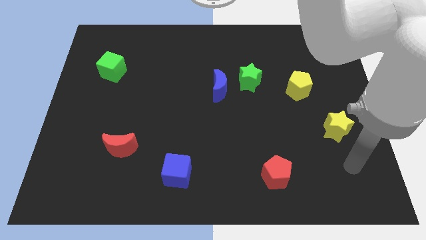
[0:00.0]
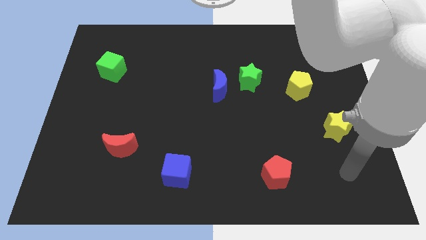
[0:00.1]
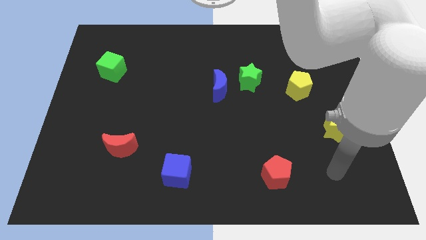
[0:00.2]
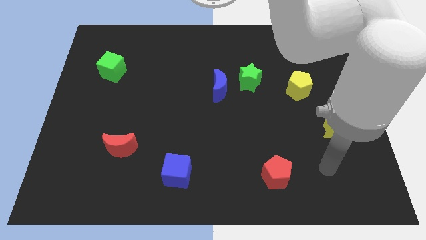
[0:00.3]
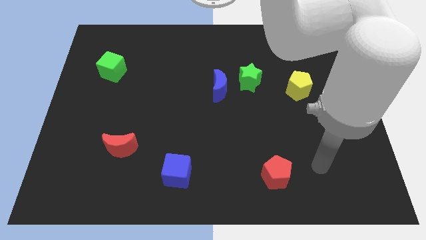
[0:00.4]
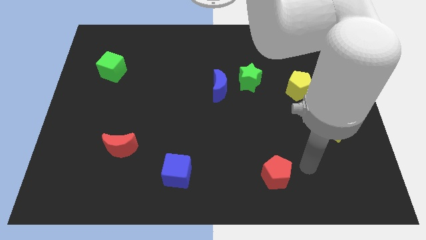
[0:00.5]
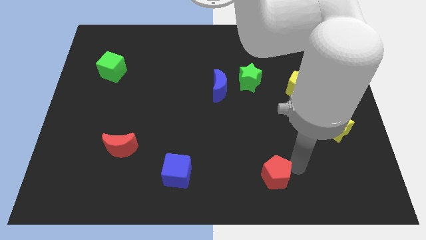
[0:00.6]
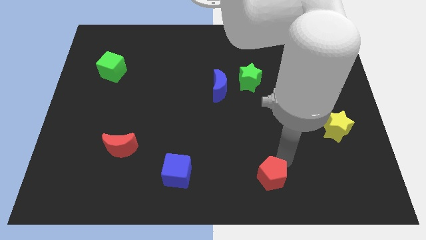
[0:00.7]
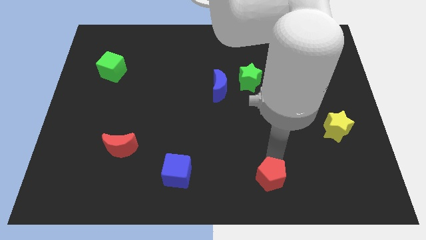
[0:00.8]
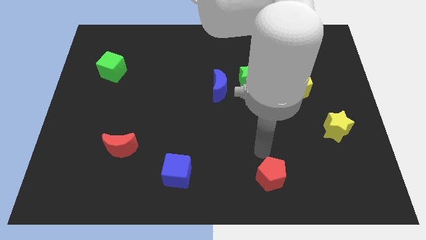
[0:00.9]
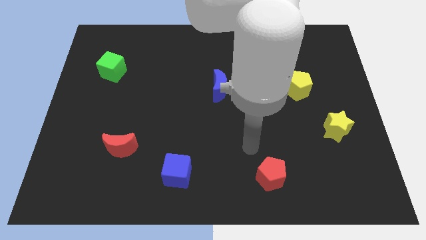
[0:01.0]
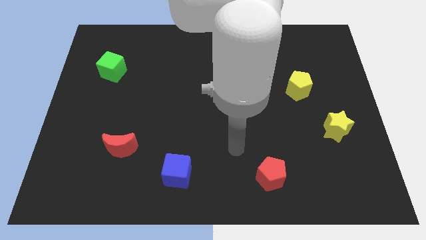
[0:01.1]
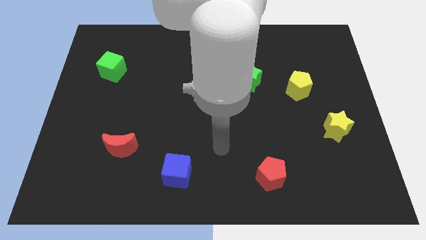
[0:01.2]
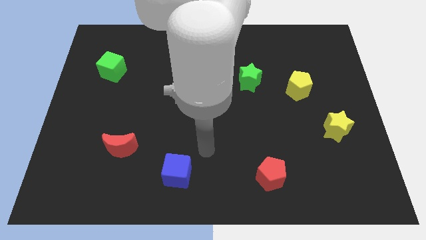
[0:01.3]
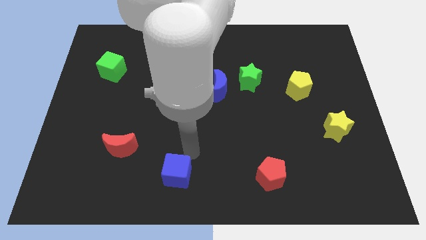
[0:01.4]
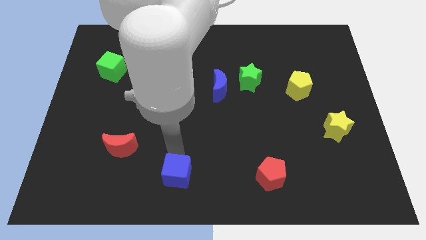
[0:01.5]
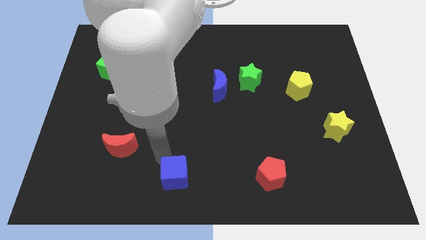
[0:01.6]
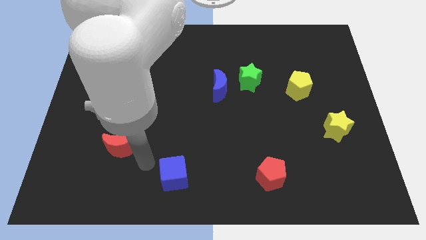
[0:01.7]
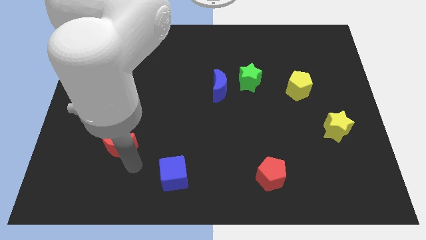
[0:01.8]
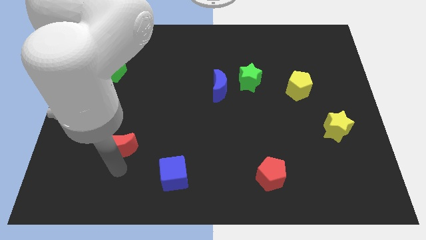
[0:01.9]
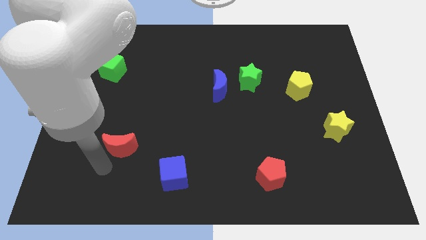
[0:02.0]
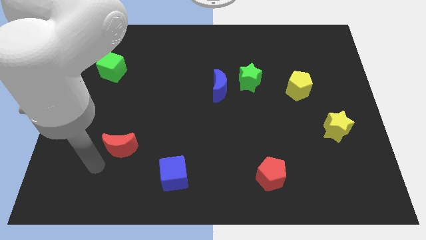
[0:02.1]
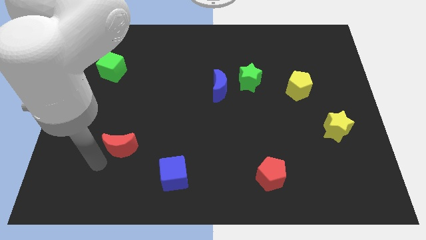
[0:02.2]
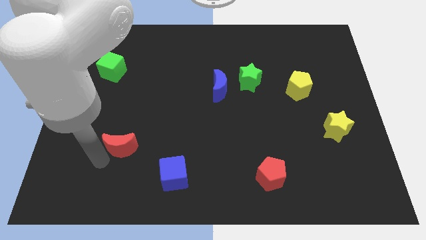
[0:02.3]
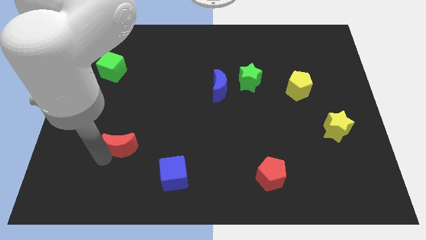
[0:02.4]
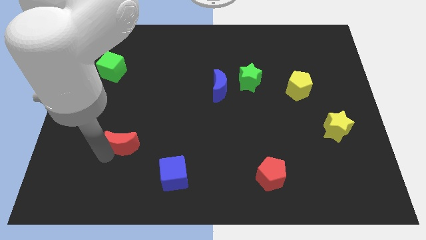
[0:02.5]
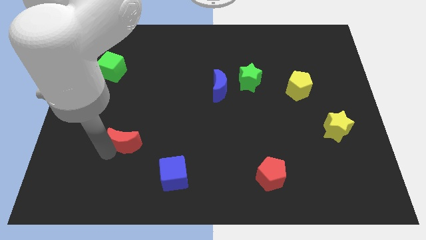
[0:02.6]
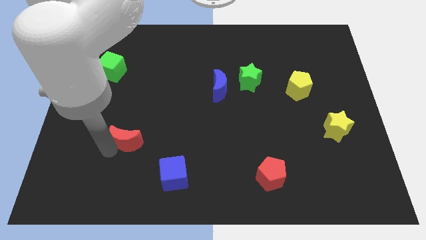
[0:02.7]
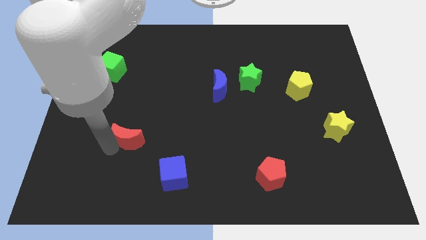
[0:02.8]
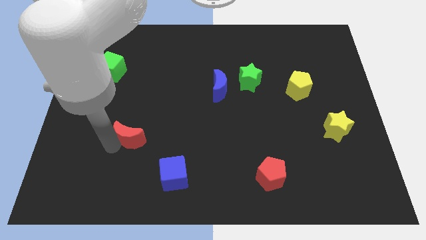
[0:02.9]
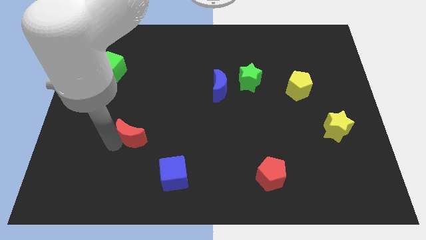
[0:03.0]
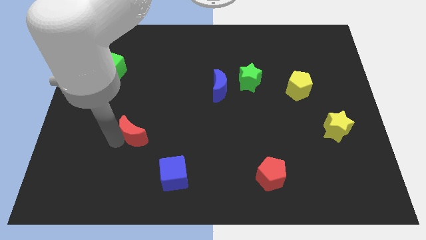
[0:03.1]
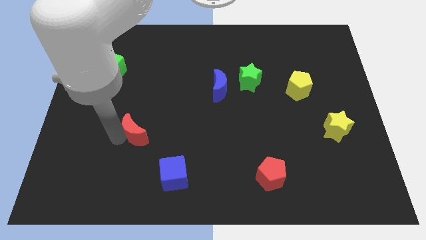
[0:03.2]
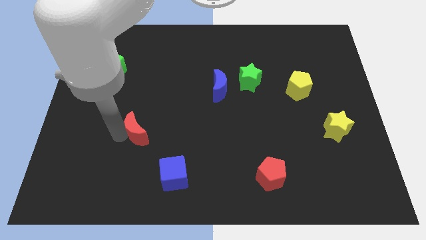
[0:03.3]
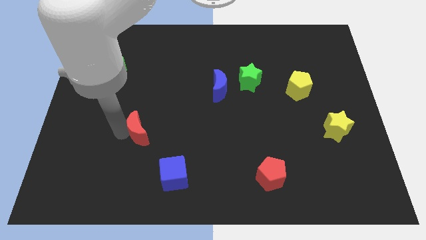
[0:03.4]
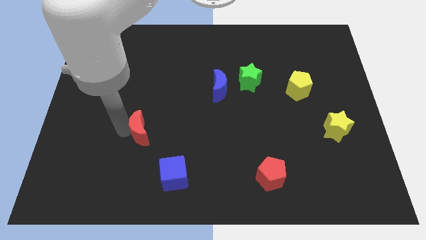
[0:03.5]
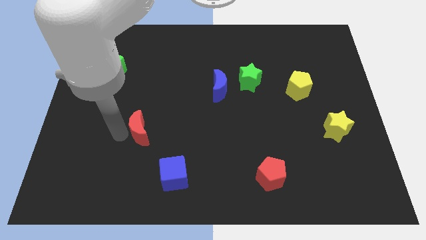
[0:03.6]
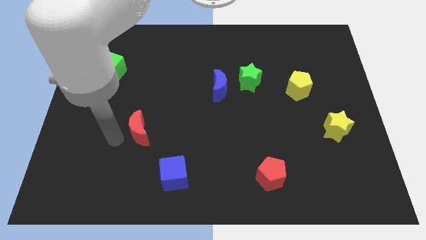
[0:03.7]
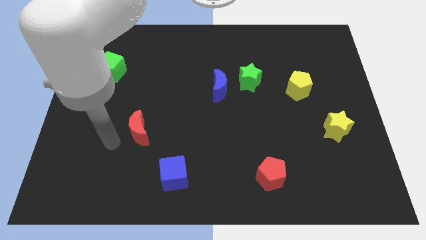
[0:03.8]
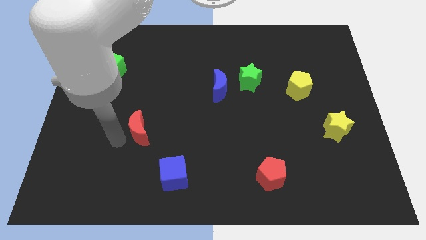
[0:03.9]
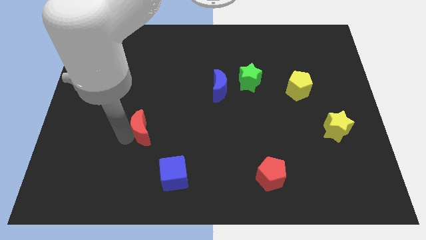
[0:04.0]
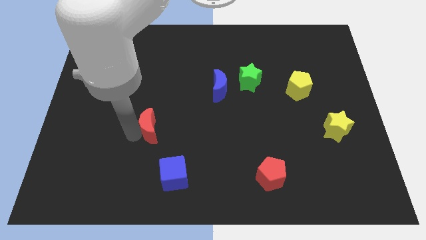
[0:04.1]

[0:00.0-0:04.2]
slightly slide the red moon up and then to the right

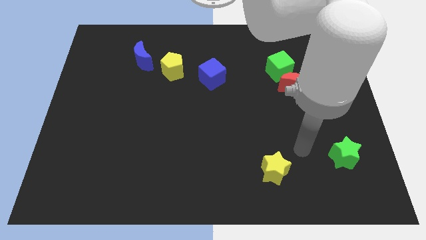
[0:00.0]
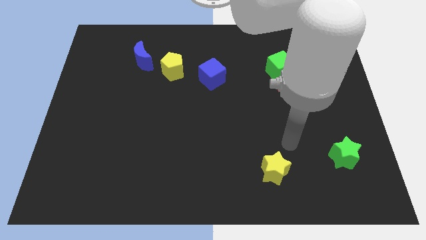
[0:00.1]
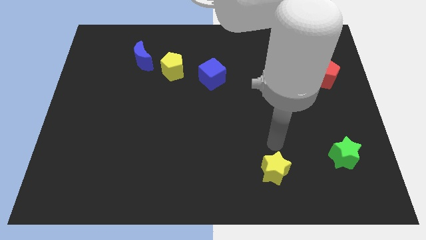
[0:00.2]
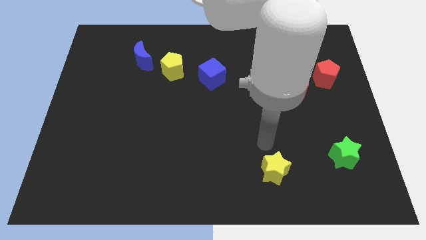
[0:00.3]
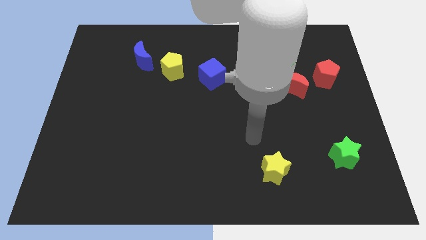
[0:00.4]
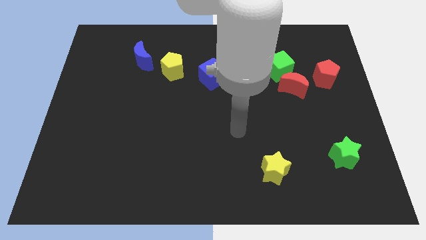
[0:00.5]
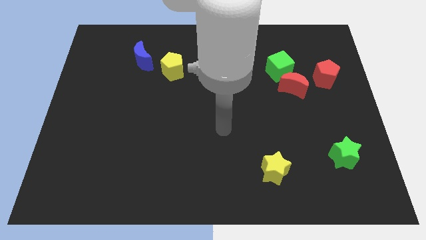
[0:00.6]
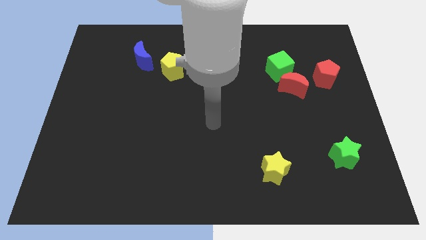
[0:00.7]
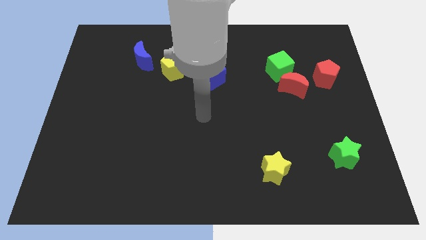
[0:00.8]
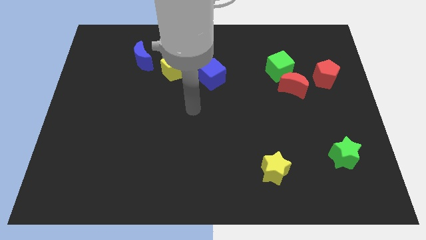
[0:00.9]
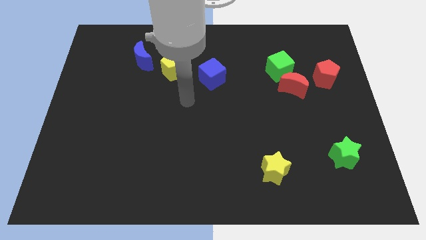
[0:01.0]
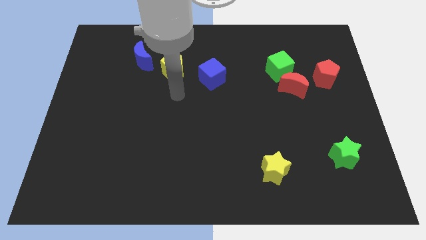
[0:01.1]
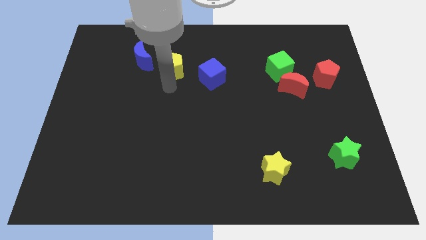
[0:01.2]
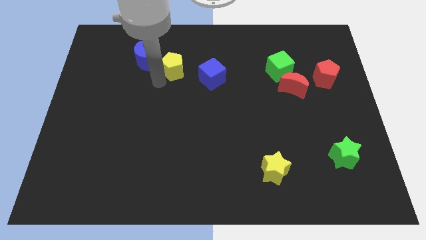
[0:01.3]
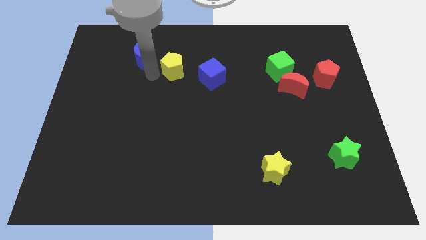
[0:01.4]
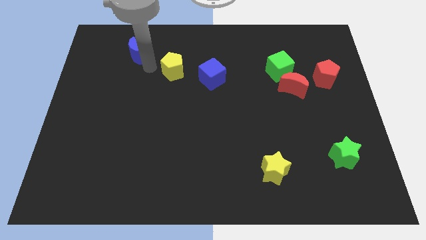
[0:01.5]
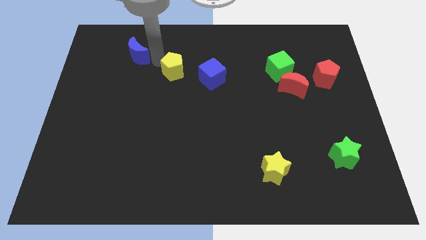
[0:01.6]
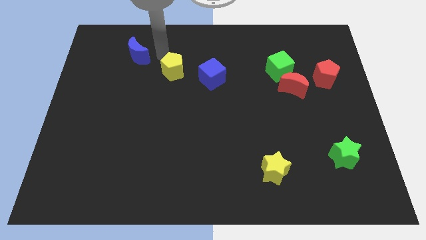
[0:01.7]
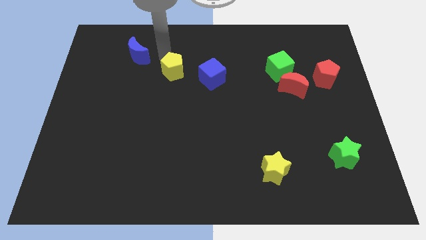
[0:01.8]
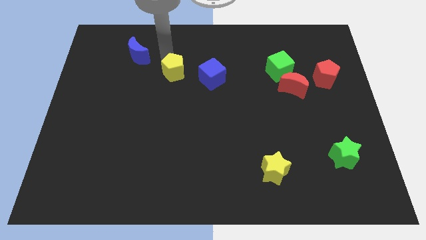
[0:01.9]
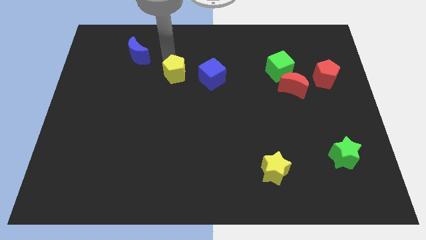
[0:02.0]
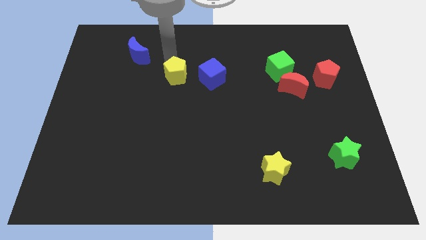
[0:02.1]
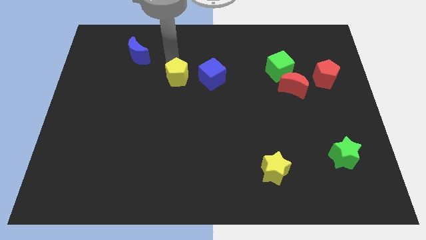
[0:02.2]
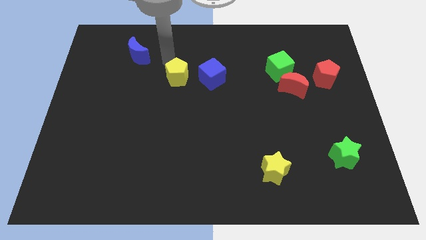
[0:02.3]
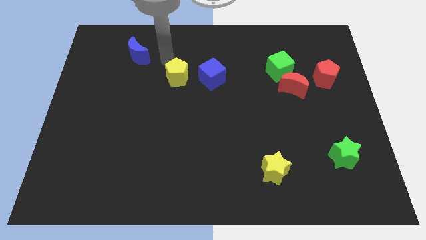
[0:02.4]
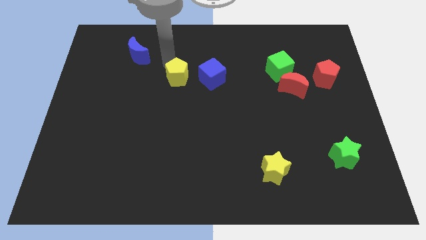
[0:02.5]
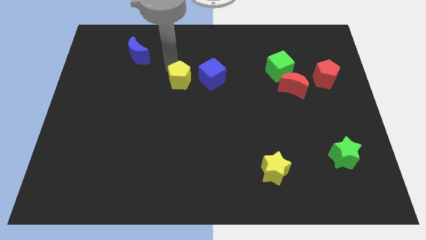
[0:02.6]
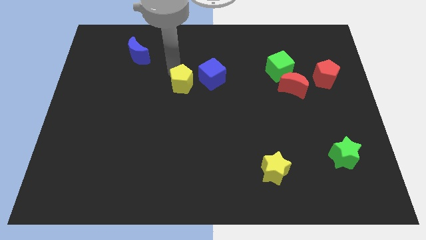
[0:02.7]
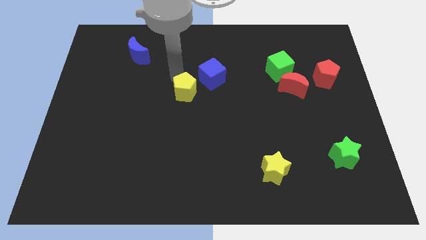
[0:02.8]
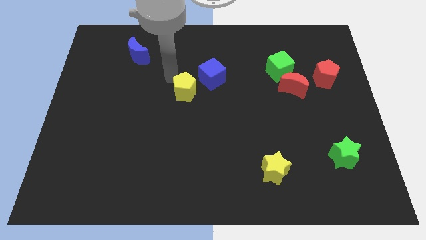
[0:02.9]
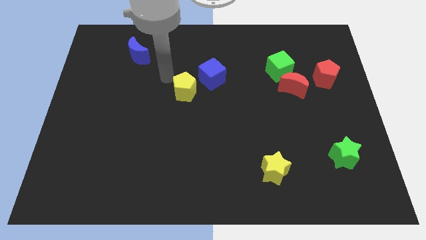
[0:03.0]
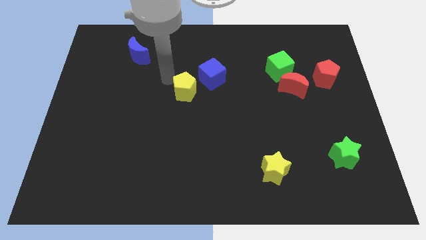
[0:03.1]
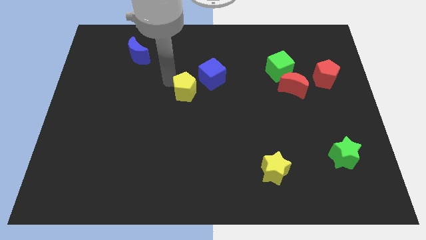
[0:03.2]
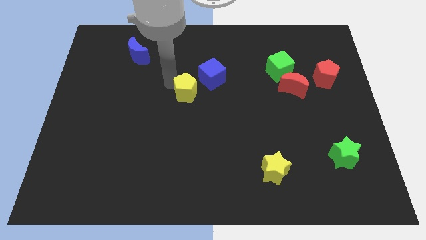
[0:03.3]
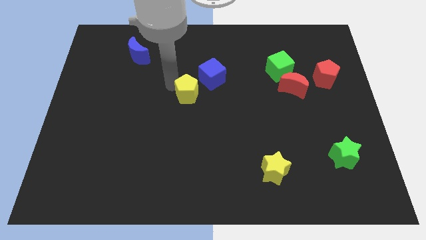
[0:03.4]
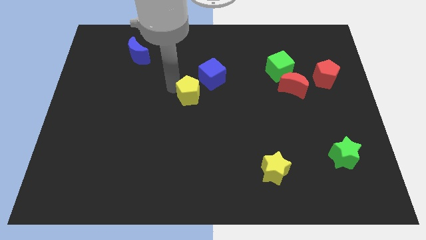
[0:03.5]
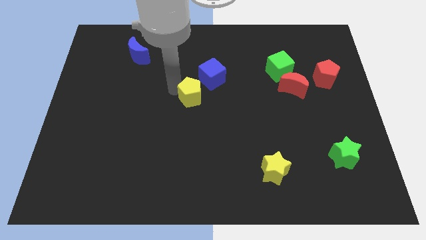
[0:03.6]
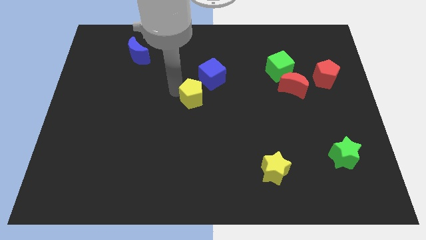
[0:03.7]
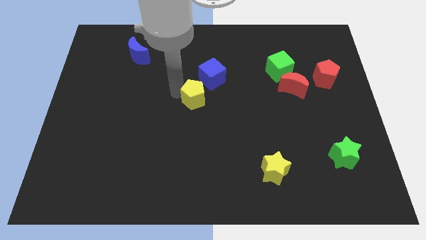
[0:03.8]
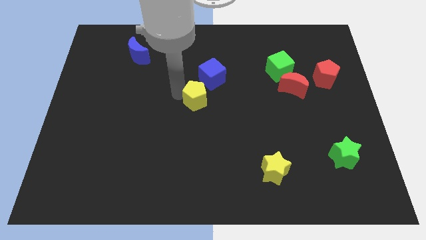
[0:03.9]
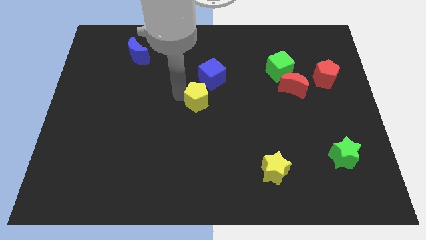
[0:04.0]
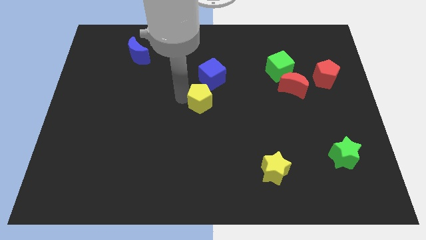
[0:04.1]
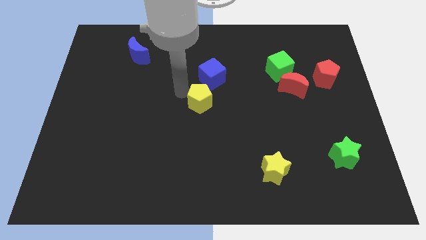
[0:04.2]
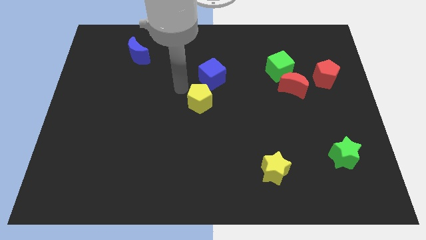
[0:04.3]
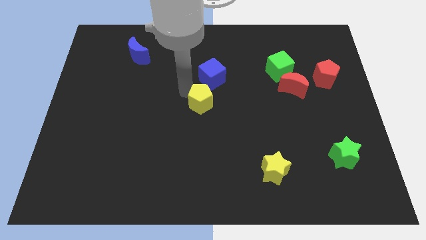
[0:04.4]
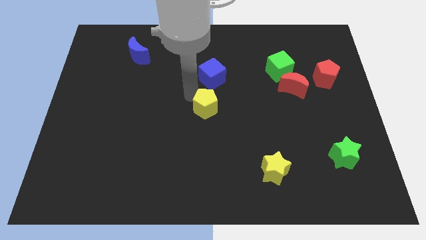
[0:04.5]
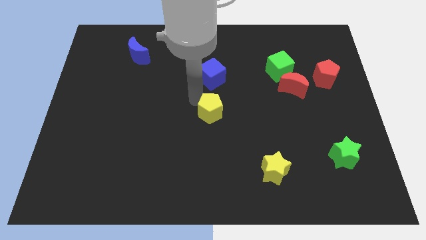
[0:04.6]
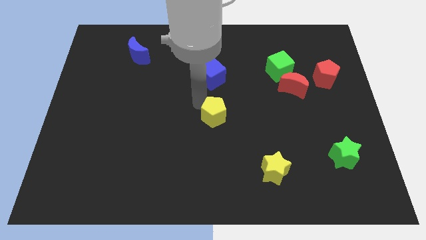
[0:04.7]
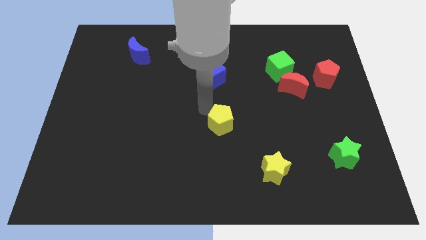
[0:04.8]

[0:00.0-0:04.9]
push the yellow pentagon down and then right
